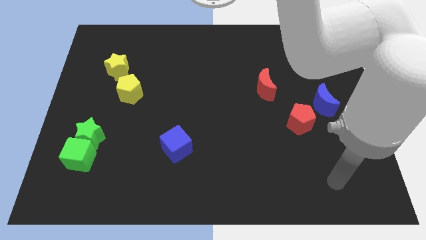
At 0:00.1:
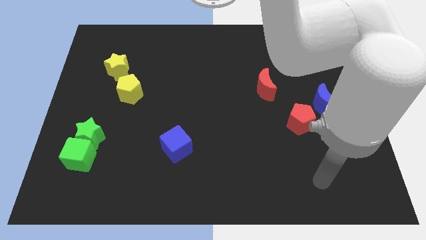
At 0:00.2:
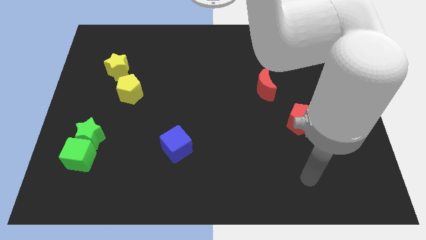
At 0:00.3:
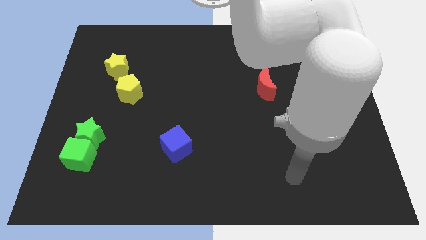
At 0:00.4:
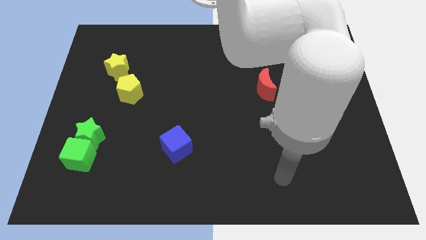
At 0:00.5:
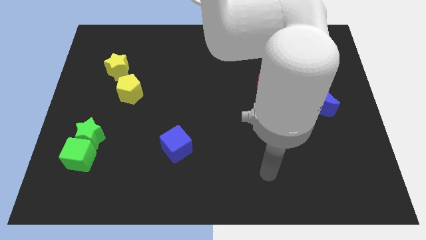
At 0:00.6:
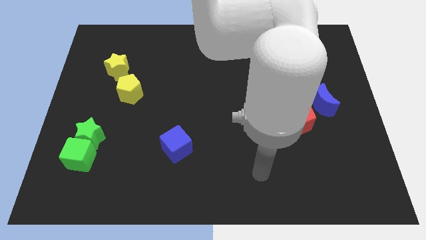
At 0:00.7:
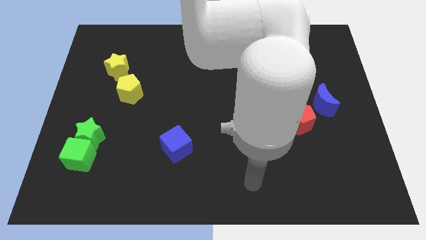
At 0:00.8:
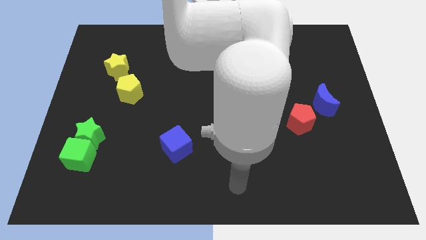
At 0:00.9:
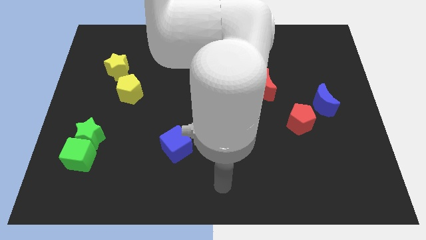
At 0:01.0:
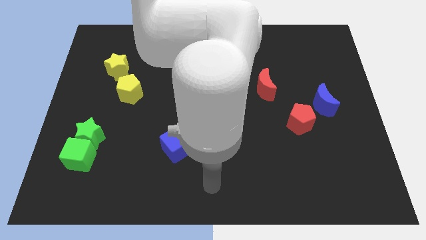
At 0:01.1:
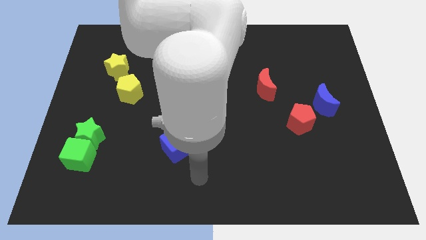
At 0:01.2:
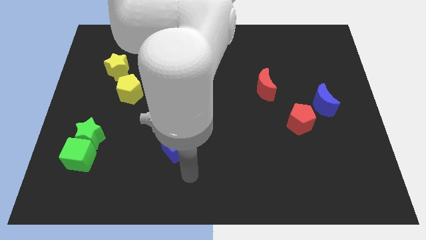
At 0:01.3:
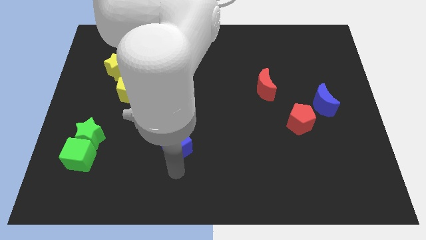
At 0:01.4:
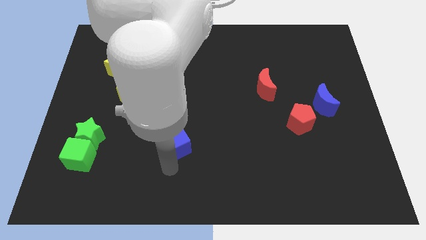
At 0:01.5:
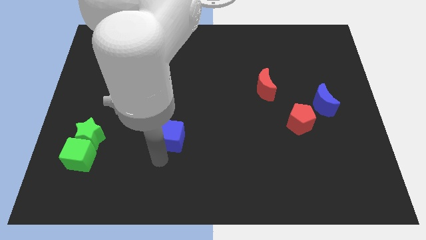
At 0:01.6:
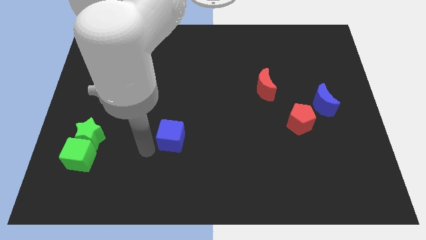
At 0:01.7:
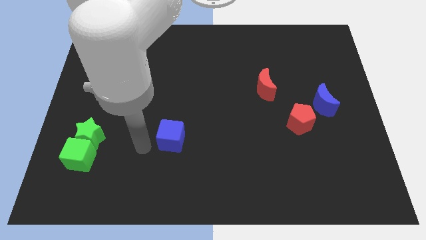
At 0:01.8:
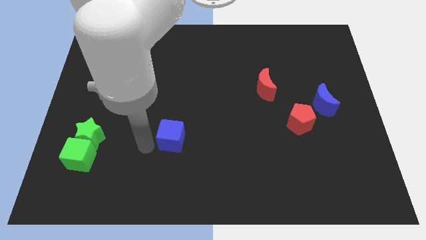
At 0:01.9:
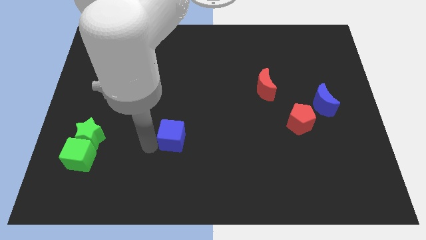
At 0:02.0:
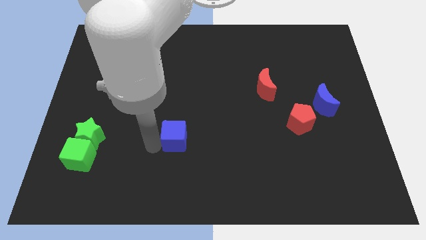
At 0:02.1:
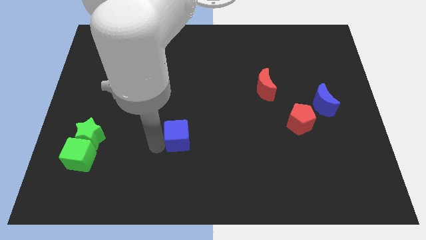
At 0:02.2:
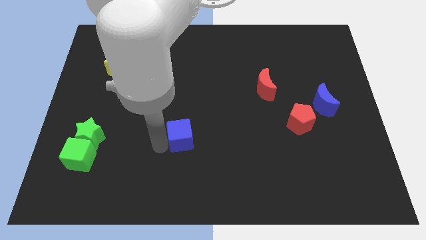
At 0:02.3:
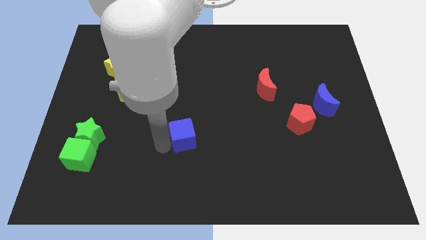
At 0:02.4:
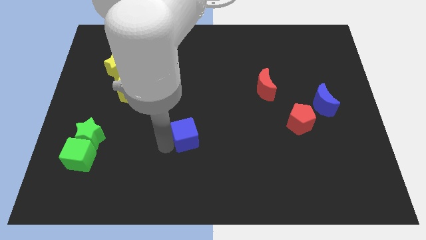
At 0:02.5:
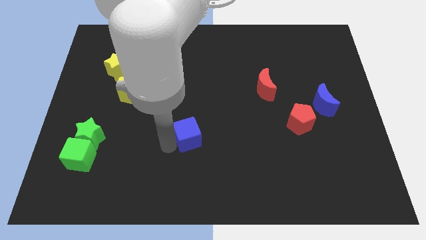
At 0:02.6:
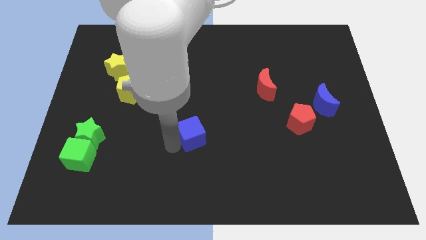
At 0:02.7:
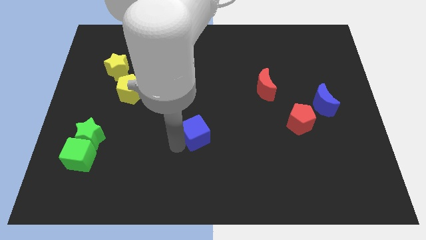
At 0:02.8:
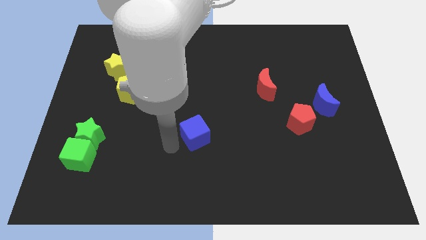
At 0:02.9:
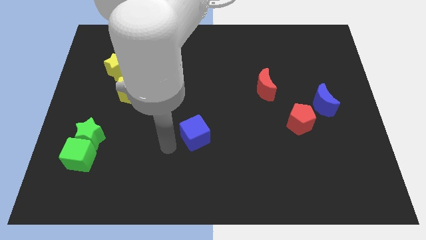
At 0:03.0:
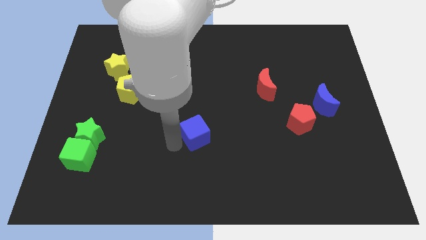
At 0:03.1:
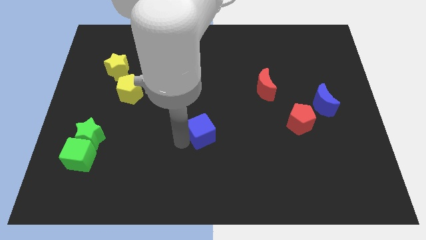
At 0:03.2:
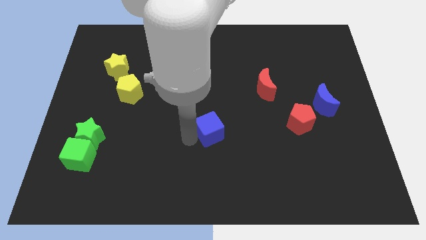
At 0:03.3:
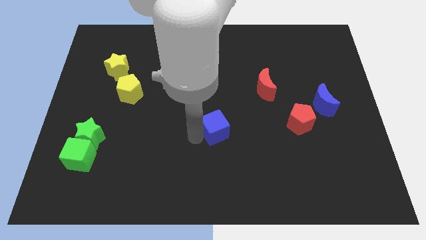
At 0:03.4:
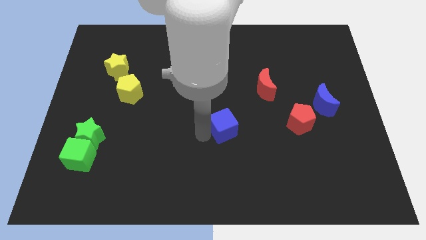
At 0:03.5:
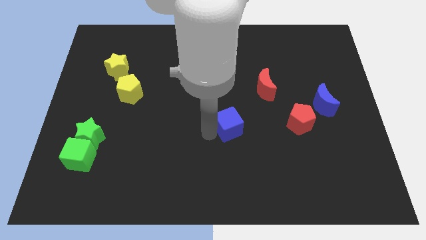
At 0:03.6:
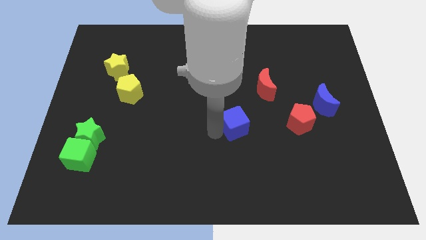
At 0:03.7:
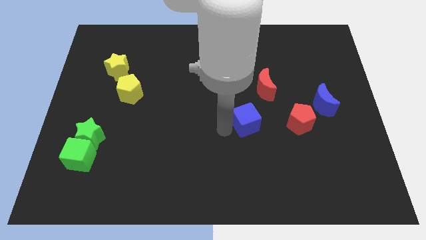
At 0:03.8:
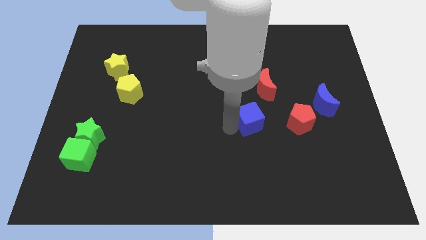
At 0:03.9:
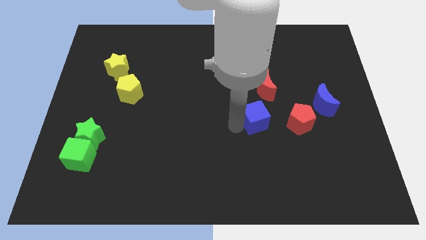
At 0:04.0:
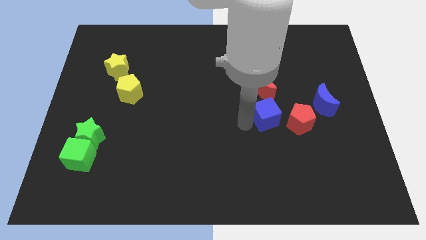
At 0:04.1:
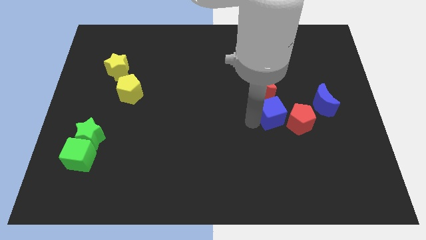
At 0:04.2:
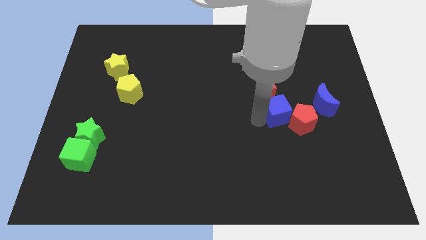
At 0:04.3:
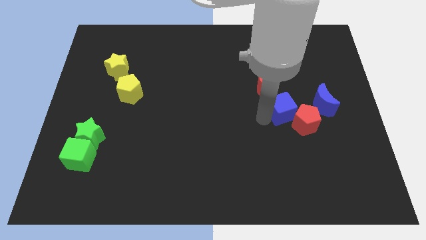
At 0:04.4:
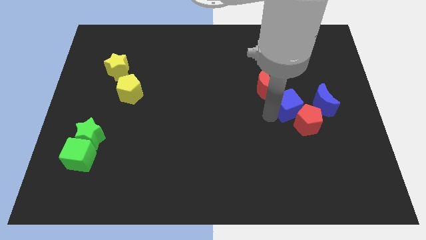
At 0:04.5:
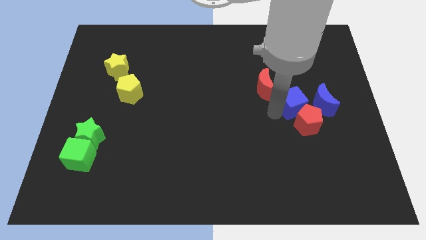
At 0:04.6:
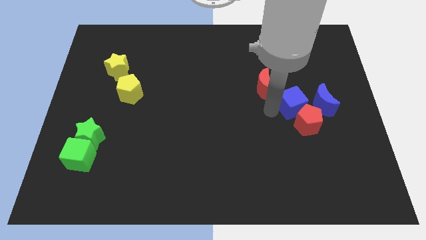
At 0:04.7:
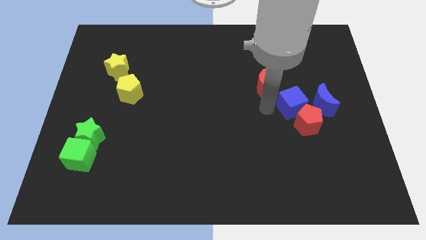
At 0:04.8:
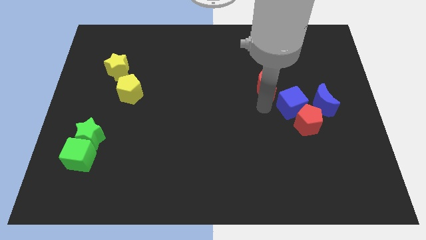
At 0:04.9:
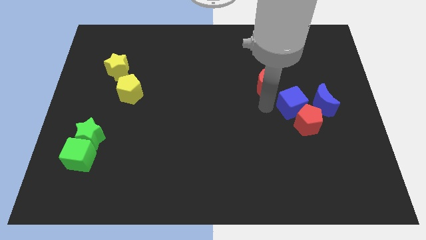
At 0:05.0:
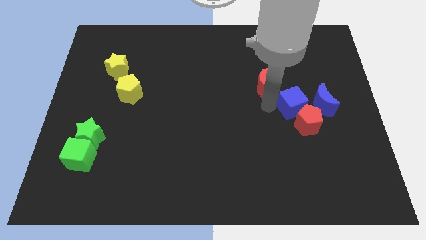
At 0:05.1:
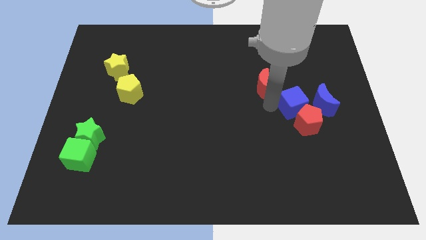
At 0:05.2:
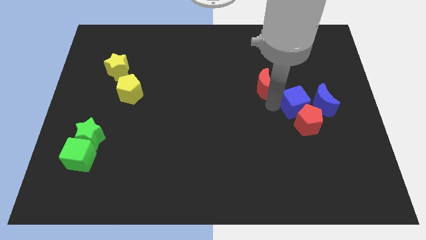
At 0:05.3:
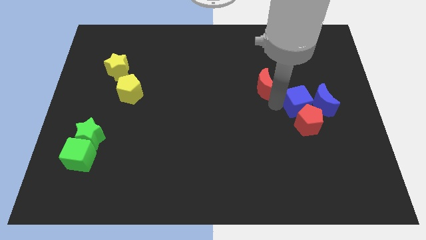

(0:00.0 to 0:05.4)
put the blue cube towards the blue moon

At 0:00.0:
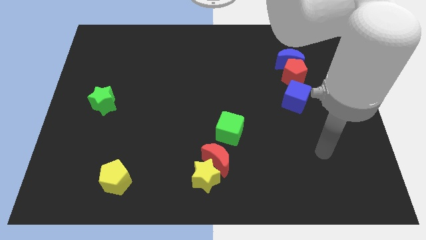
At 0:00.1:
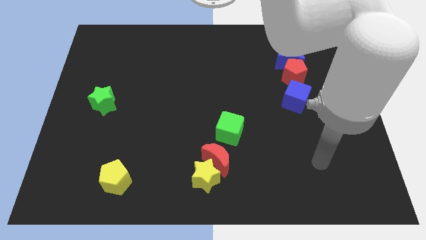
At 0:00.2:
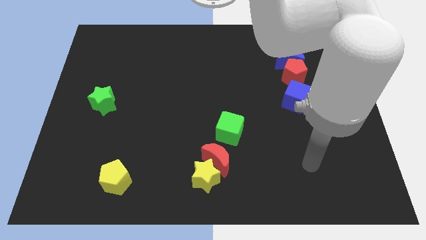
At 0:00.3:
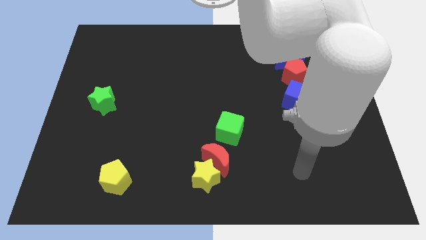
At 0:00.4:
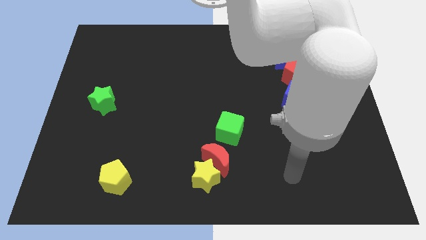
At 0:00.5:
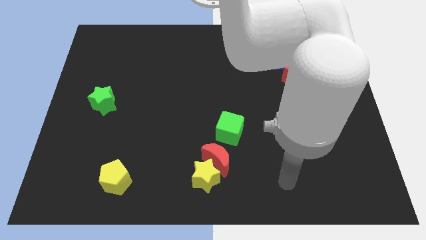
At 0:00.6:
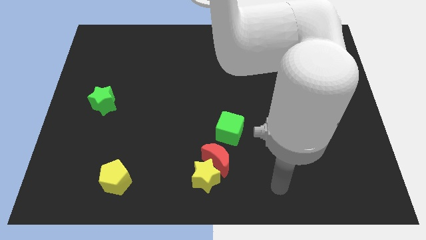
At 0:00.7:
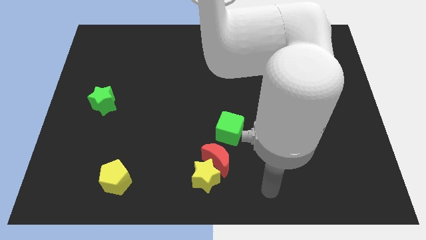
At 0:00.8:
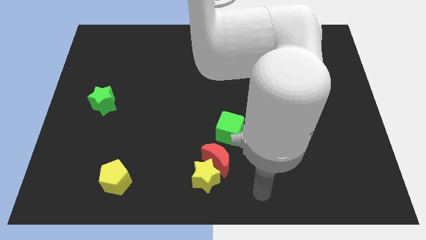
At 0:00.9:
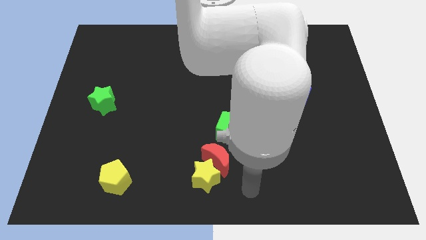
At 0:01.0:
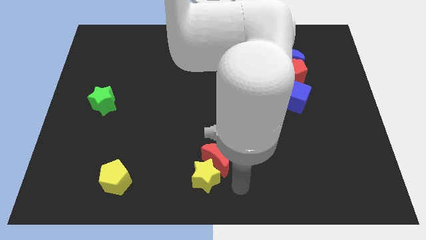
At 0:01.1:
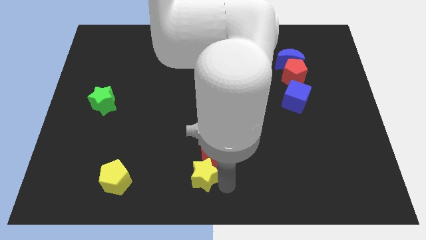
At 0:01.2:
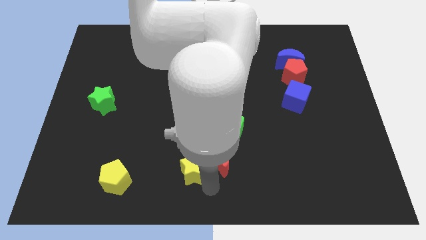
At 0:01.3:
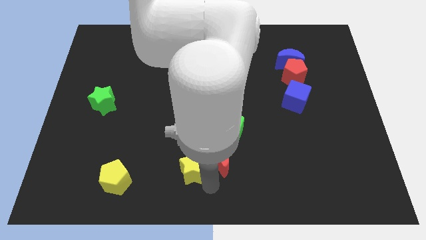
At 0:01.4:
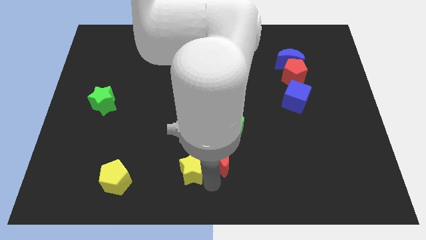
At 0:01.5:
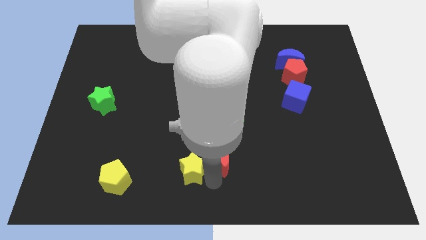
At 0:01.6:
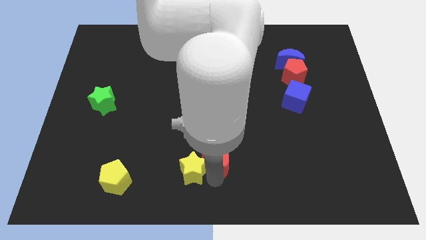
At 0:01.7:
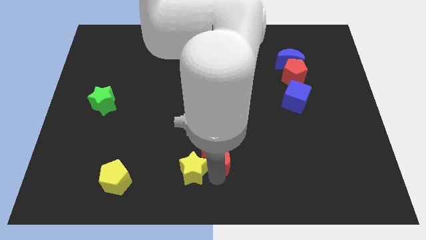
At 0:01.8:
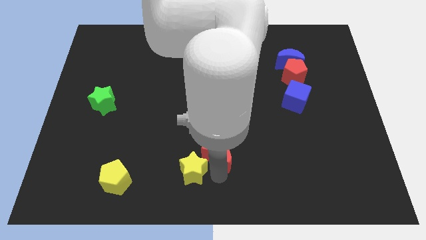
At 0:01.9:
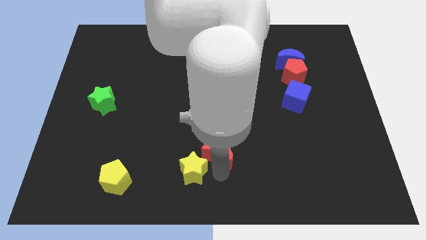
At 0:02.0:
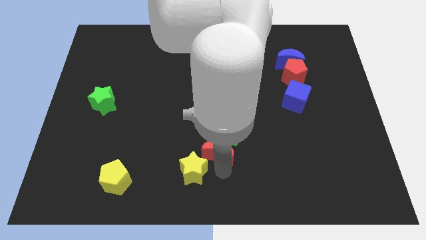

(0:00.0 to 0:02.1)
move the red moon towards the green cube
